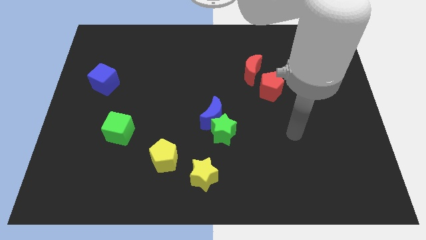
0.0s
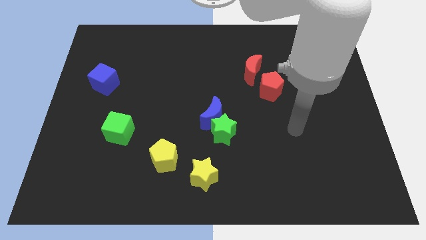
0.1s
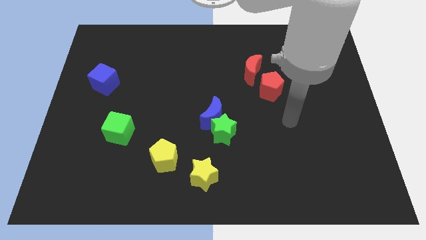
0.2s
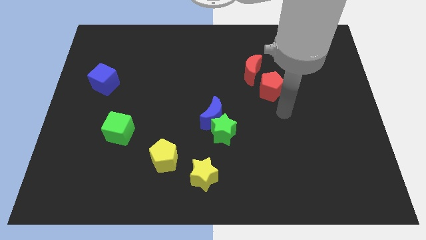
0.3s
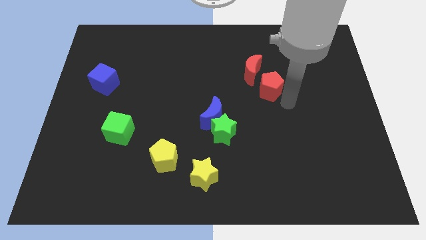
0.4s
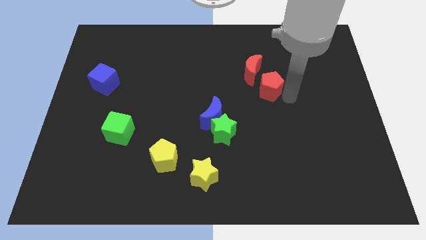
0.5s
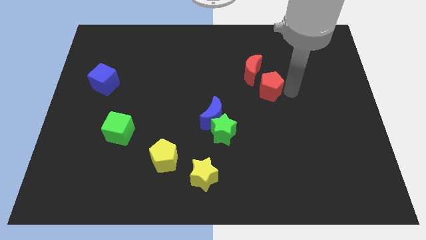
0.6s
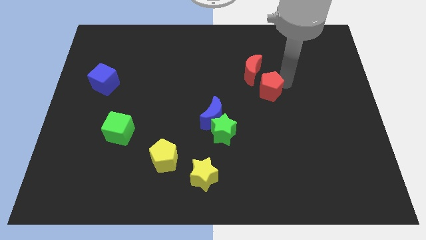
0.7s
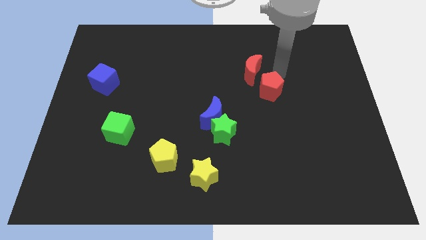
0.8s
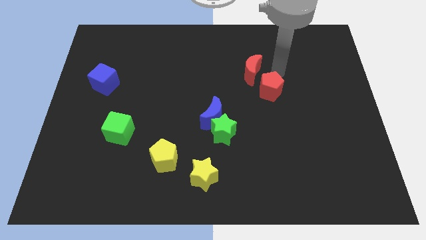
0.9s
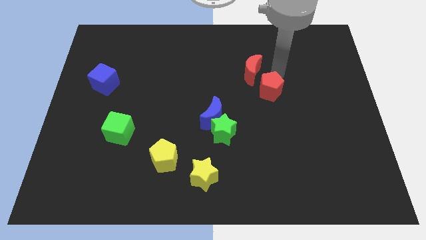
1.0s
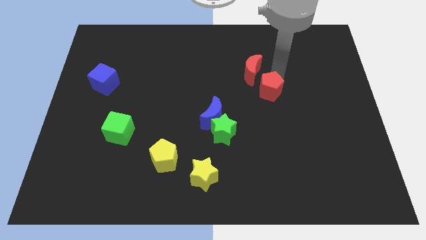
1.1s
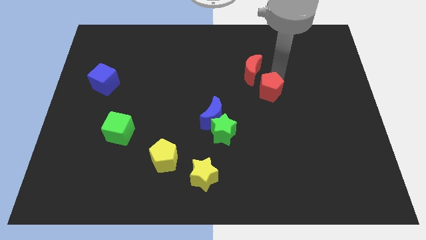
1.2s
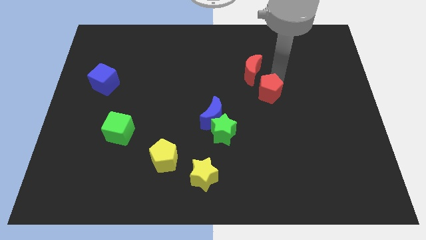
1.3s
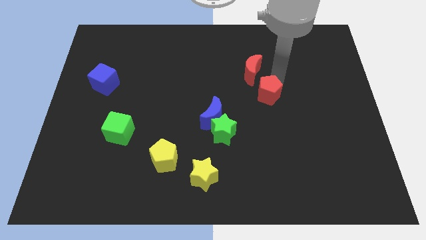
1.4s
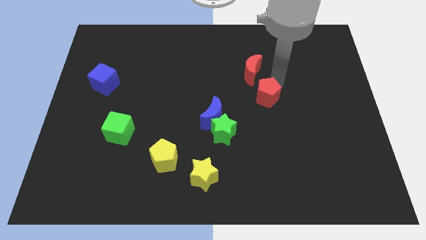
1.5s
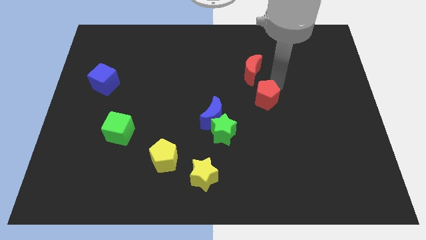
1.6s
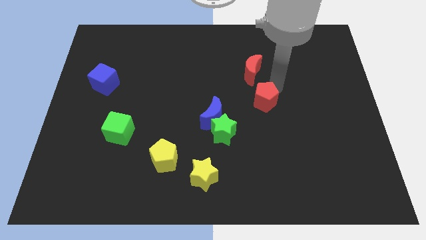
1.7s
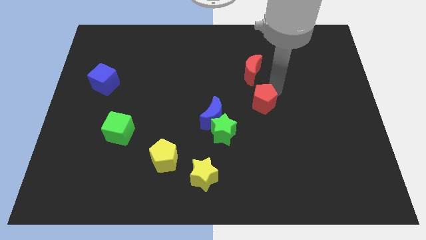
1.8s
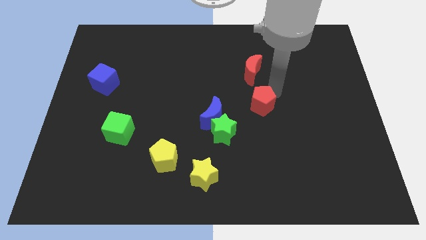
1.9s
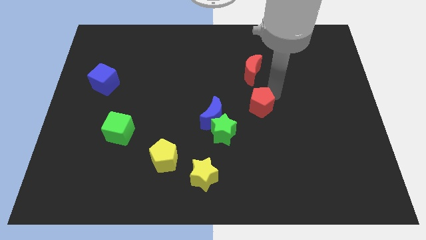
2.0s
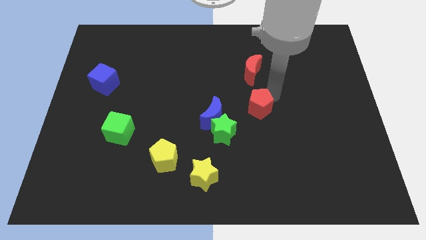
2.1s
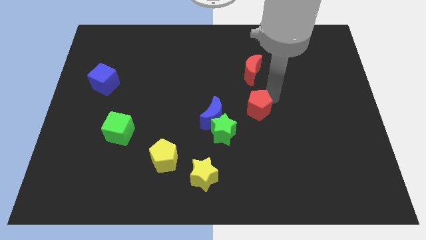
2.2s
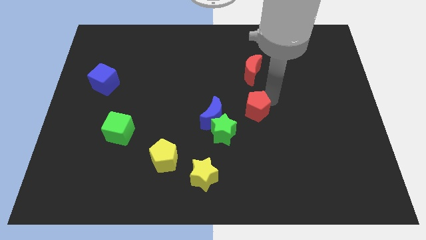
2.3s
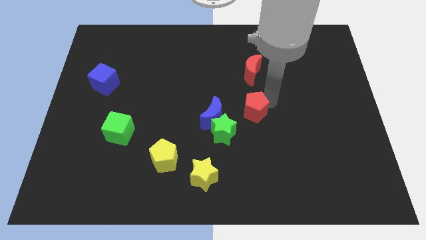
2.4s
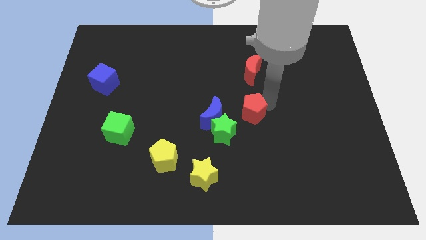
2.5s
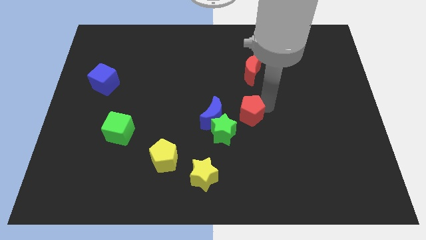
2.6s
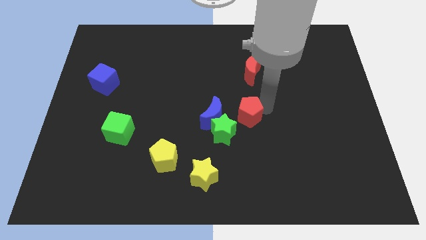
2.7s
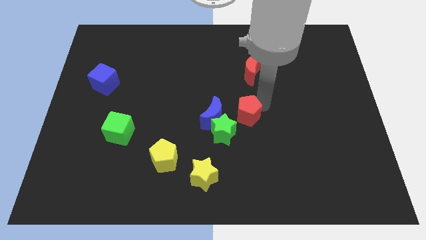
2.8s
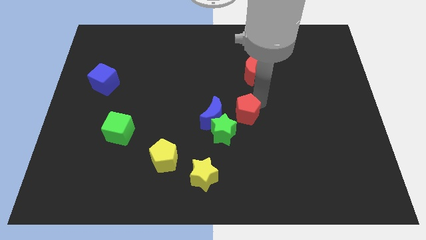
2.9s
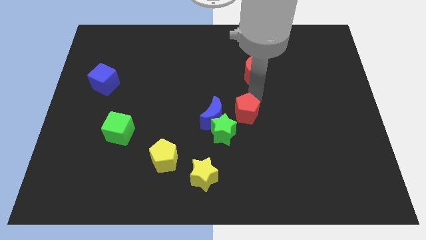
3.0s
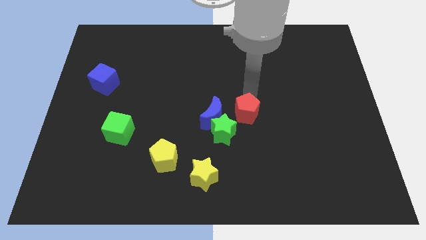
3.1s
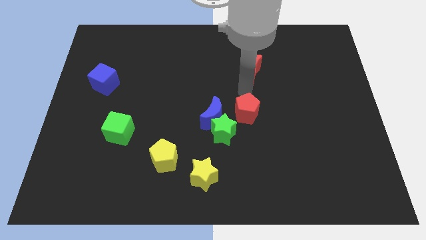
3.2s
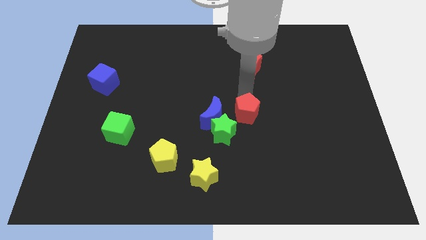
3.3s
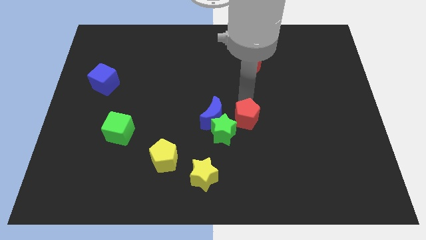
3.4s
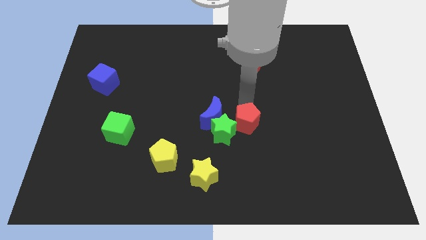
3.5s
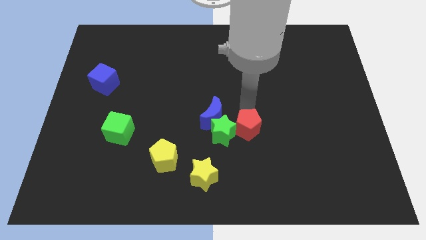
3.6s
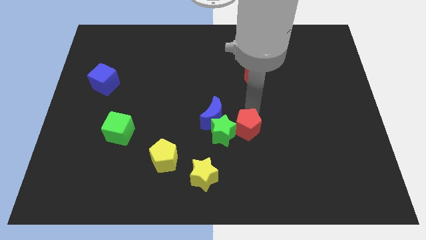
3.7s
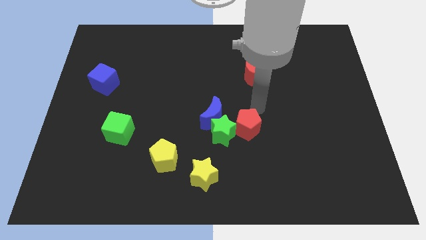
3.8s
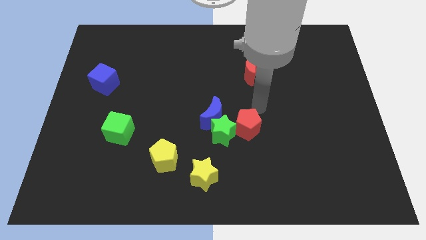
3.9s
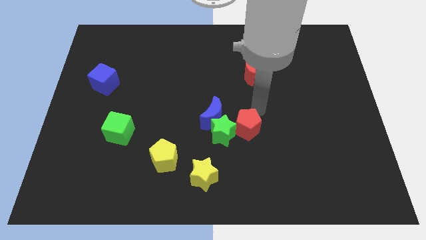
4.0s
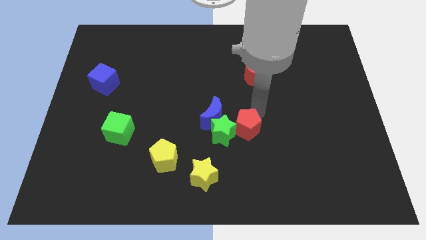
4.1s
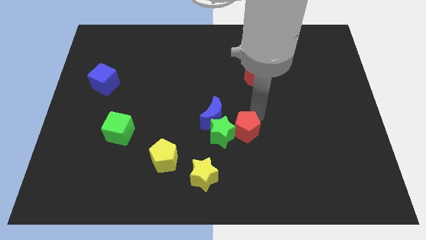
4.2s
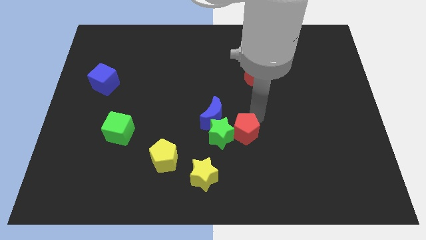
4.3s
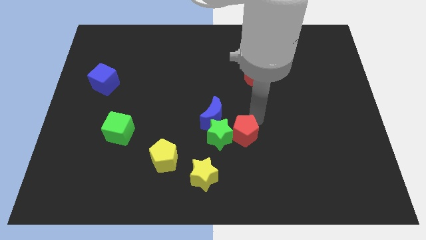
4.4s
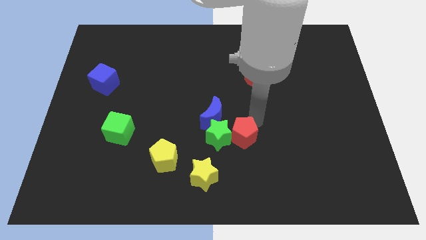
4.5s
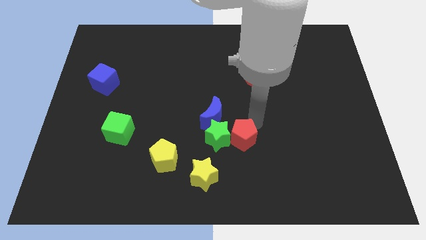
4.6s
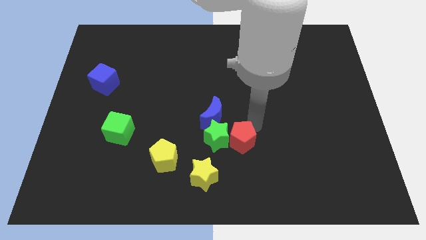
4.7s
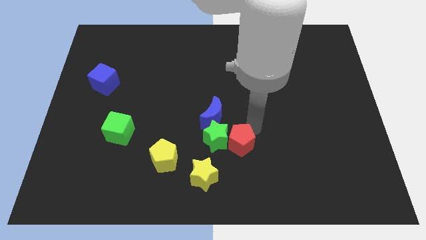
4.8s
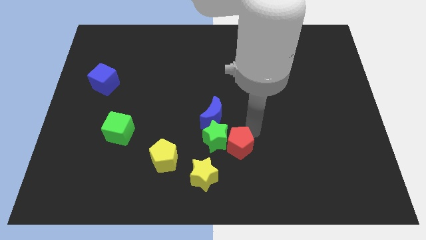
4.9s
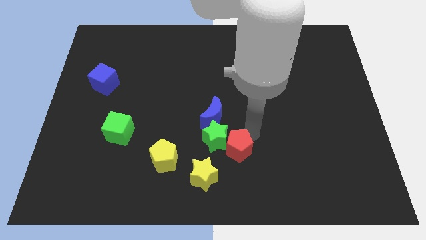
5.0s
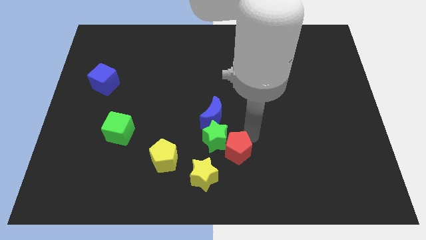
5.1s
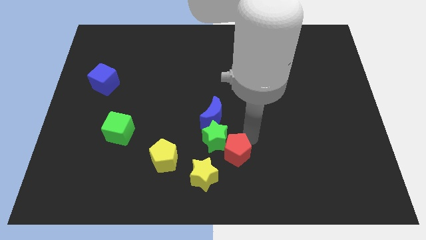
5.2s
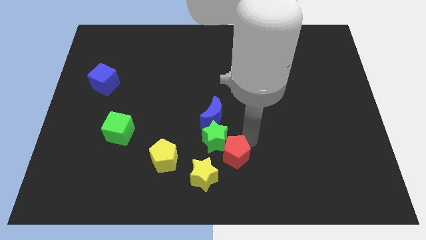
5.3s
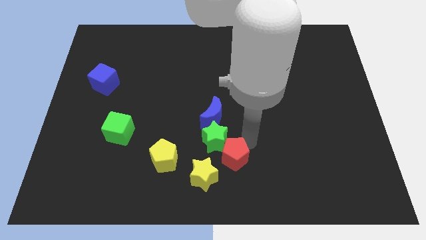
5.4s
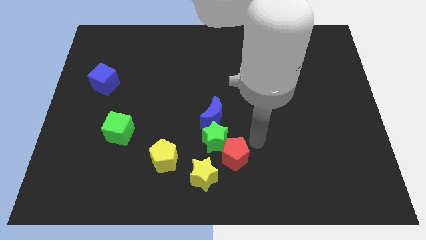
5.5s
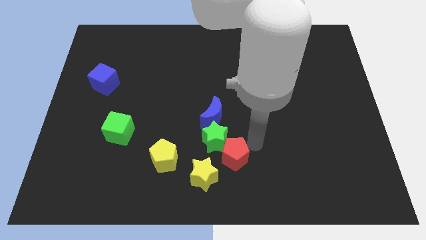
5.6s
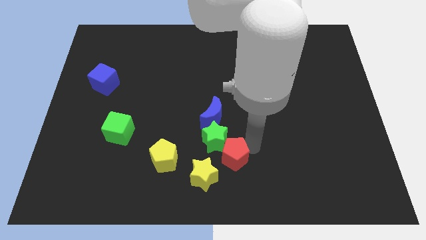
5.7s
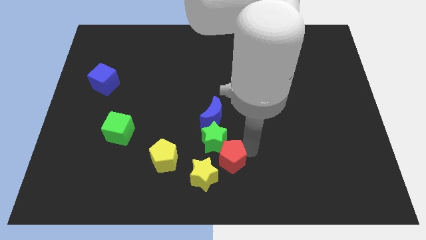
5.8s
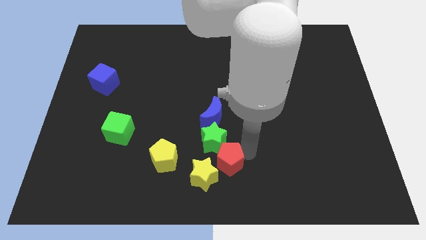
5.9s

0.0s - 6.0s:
slide the red pentagon to the yellow star
